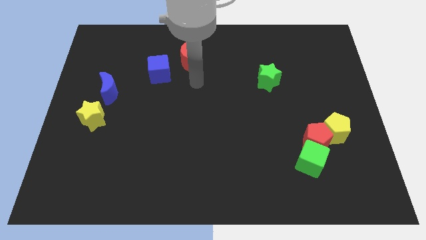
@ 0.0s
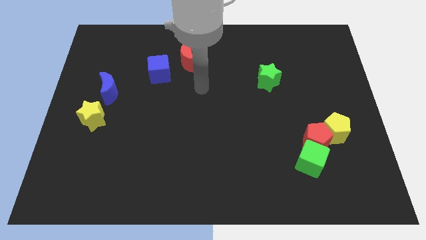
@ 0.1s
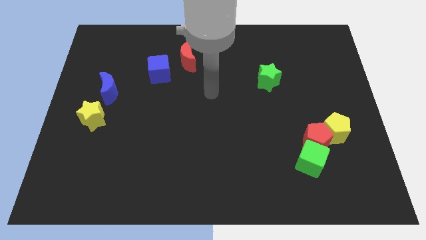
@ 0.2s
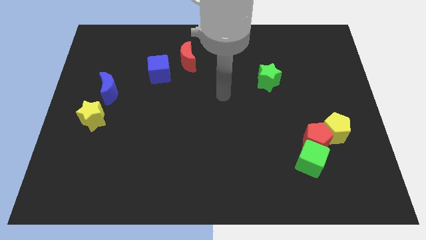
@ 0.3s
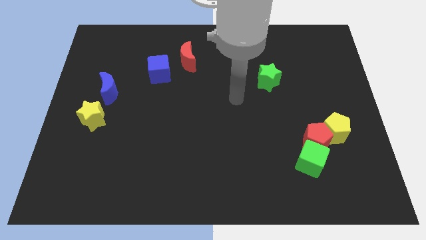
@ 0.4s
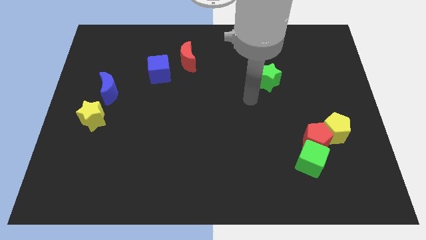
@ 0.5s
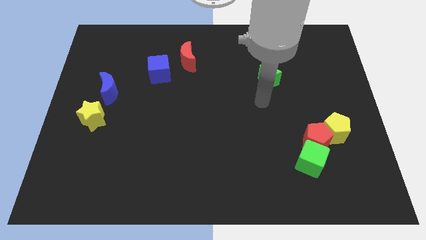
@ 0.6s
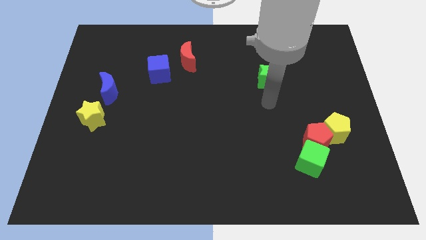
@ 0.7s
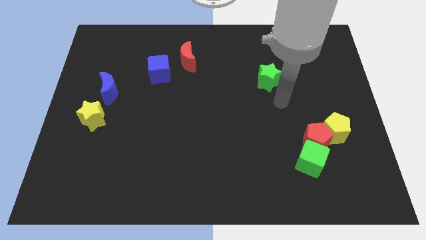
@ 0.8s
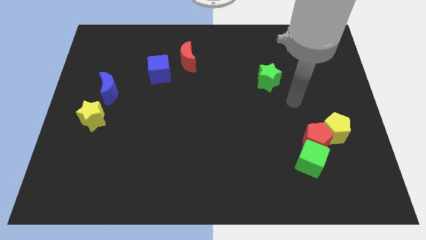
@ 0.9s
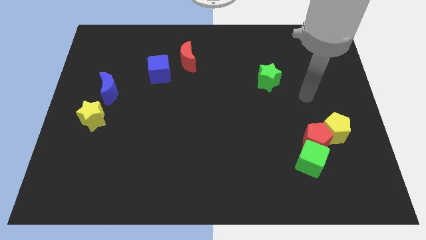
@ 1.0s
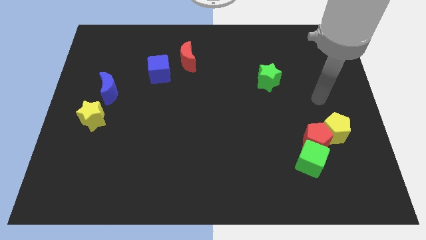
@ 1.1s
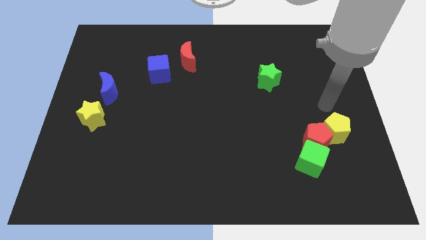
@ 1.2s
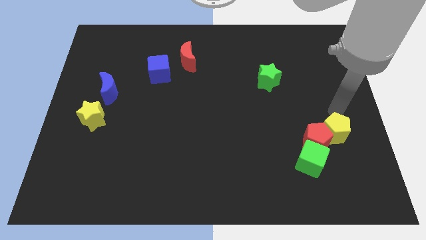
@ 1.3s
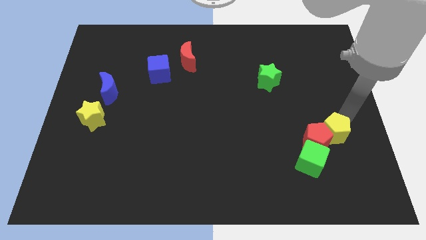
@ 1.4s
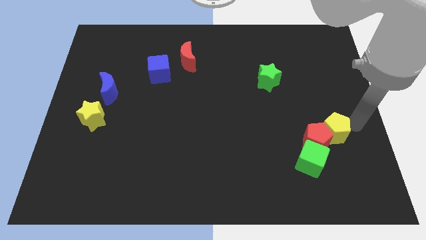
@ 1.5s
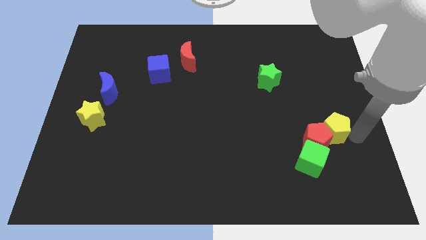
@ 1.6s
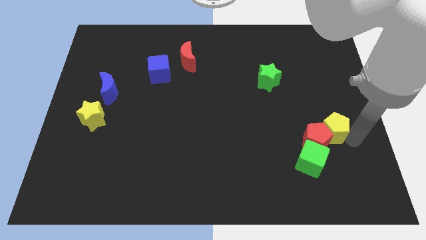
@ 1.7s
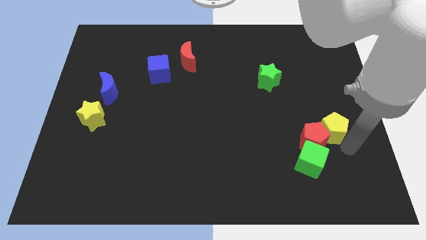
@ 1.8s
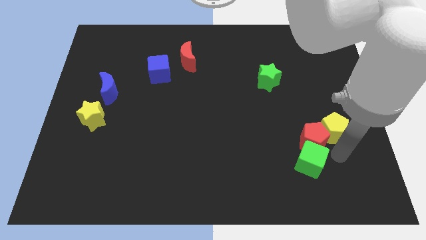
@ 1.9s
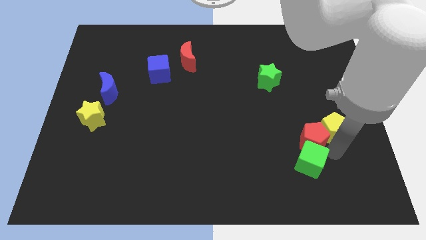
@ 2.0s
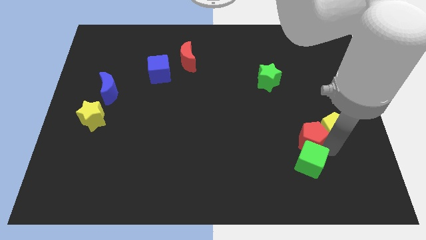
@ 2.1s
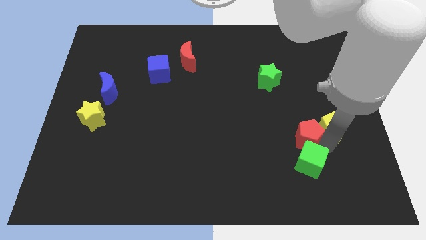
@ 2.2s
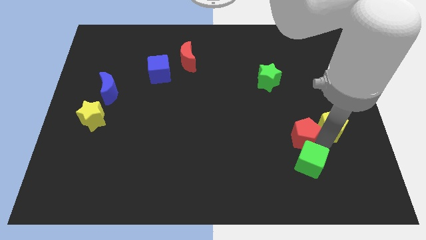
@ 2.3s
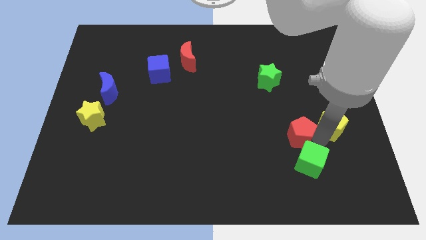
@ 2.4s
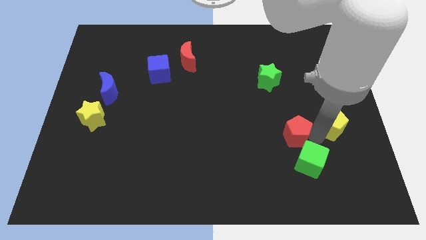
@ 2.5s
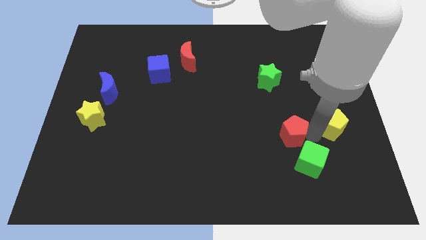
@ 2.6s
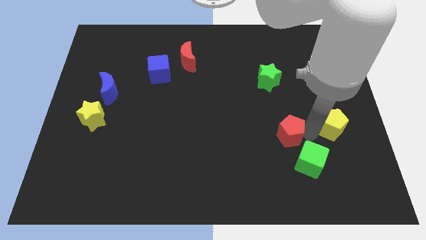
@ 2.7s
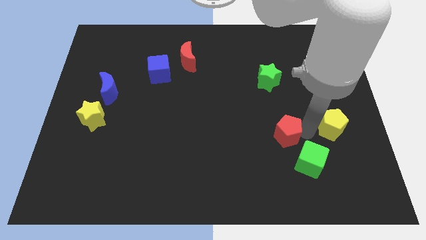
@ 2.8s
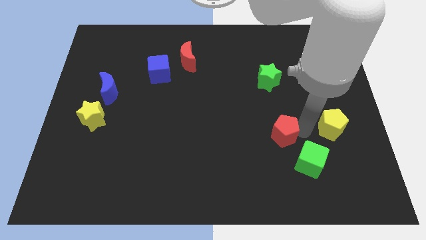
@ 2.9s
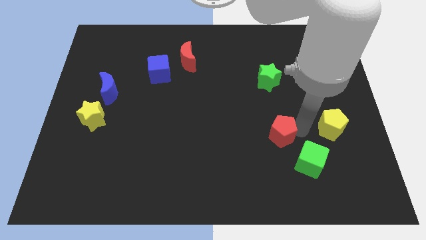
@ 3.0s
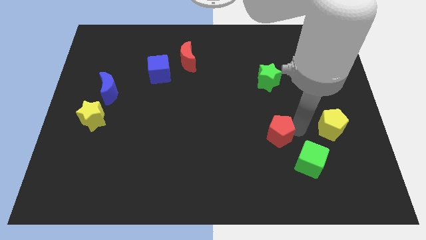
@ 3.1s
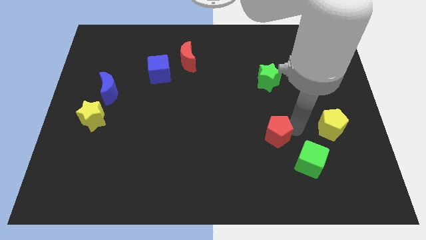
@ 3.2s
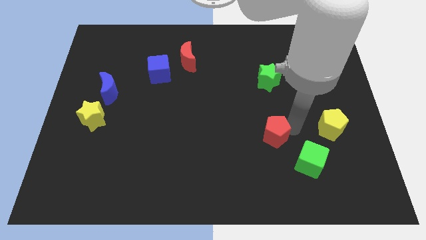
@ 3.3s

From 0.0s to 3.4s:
move the red pentagon away from the yellow pentagon and green cube

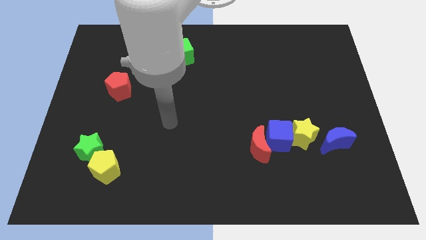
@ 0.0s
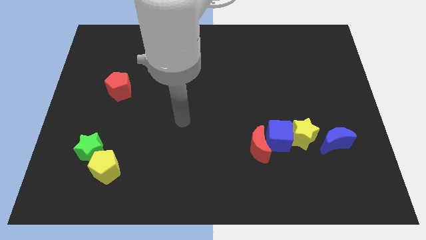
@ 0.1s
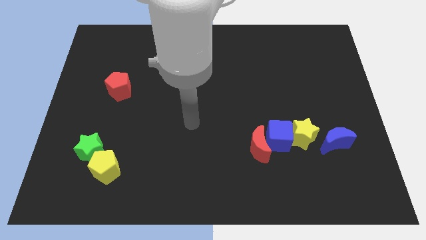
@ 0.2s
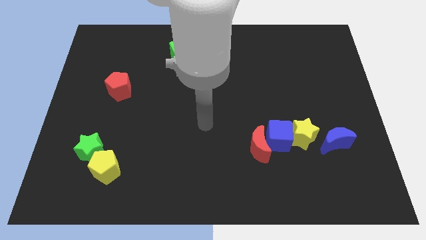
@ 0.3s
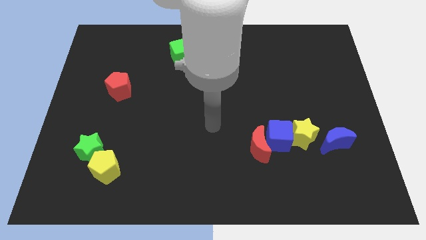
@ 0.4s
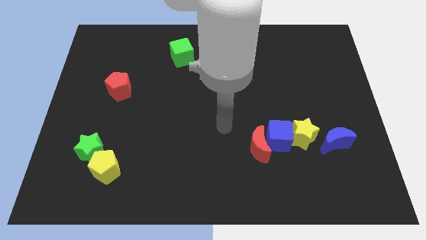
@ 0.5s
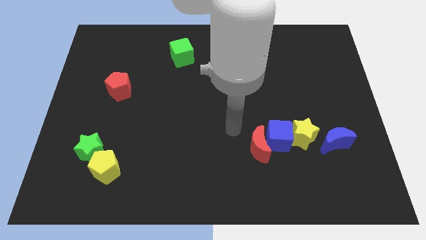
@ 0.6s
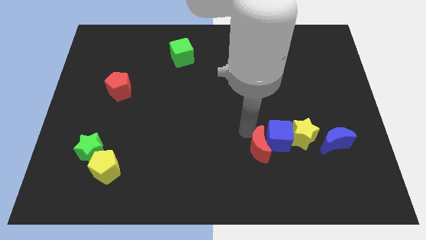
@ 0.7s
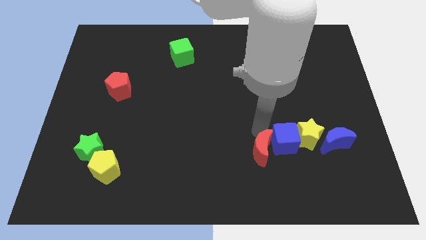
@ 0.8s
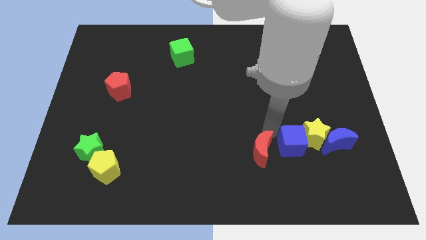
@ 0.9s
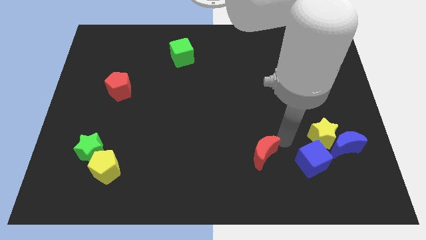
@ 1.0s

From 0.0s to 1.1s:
move the red moon away from the blue cube

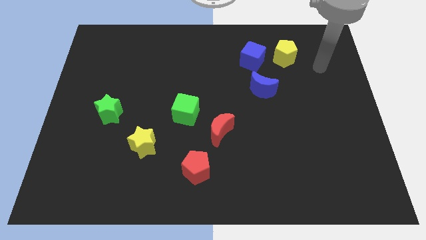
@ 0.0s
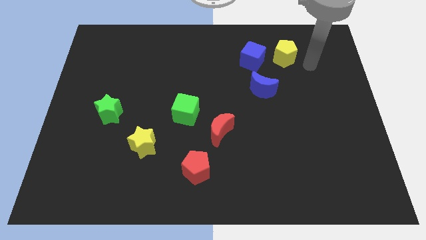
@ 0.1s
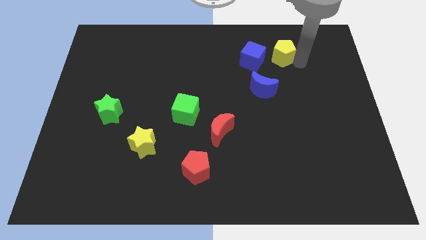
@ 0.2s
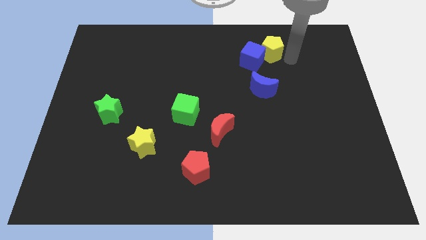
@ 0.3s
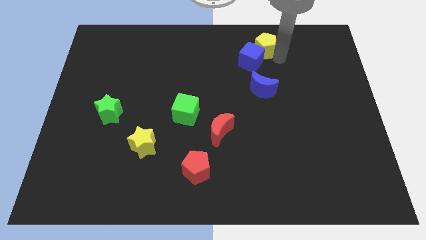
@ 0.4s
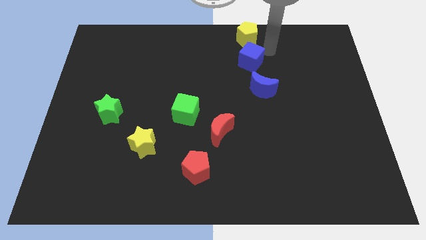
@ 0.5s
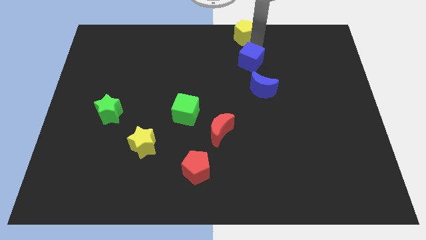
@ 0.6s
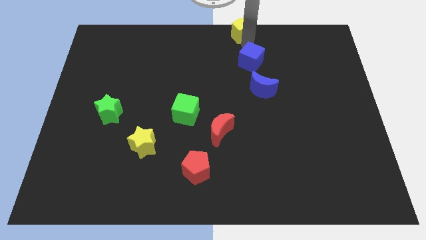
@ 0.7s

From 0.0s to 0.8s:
pull the blue cube apart from the yellow pentagon

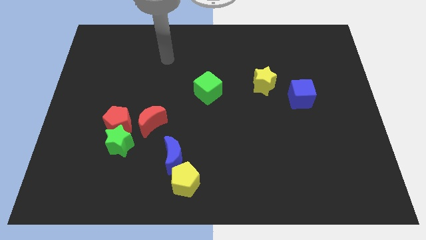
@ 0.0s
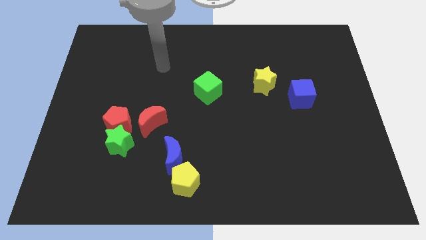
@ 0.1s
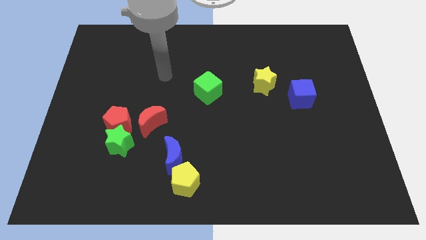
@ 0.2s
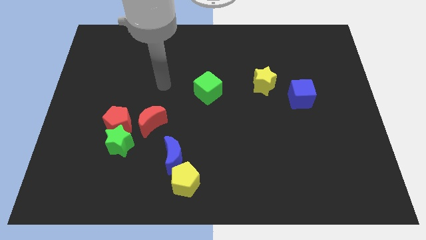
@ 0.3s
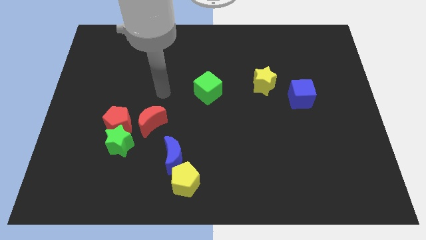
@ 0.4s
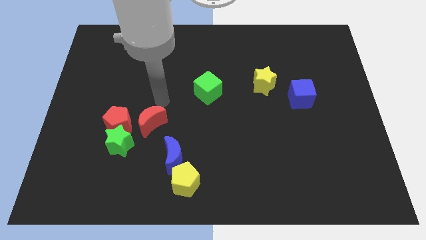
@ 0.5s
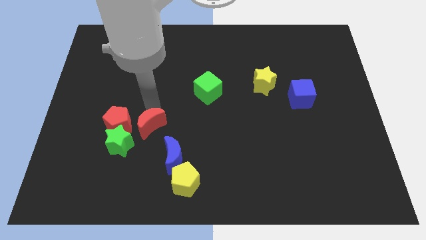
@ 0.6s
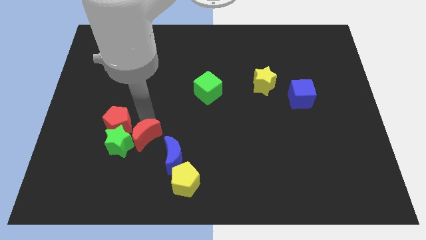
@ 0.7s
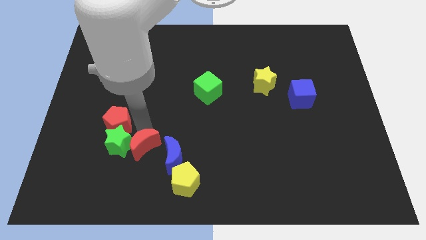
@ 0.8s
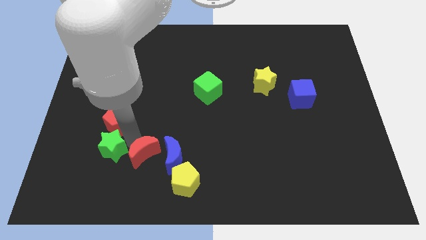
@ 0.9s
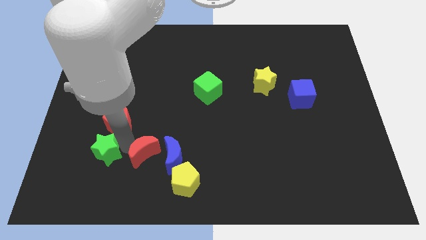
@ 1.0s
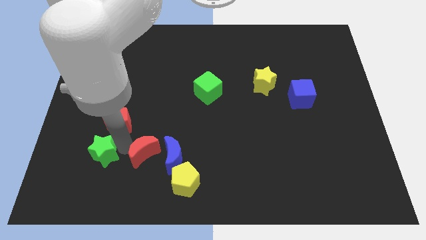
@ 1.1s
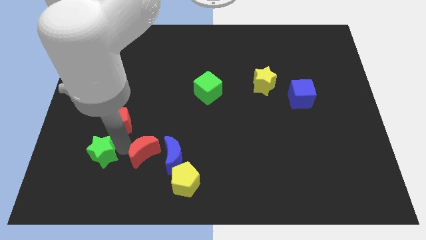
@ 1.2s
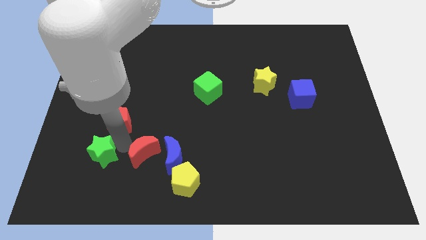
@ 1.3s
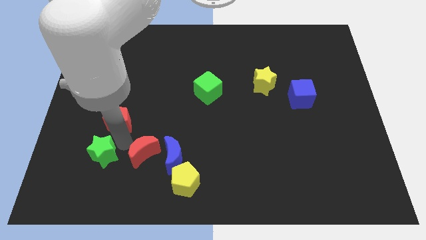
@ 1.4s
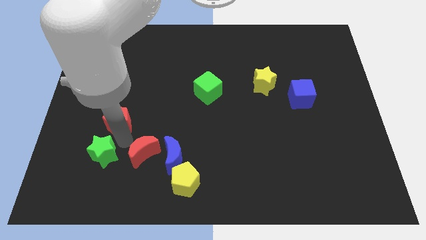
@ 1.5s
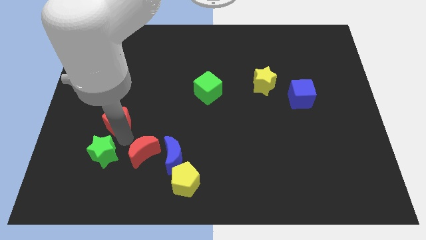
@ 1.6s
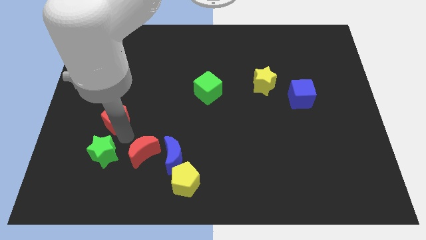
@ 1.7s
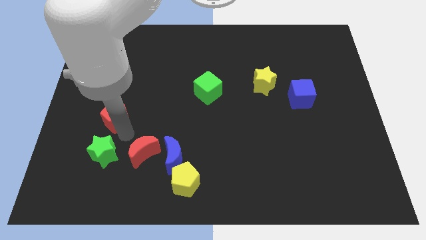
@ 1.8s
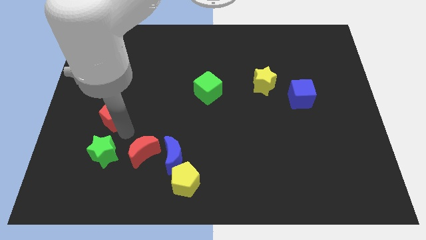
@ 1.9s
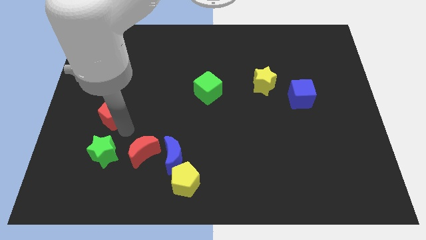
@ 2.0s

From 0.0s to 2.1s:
pull the red pentagon apart from the green star and red moon

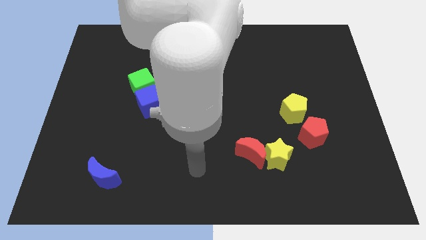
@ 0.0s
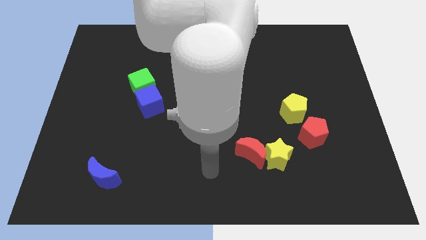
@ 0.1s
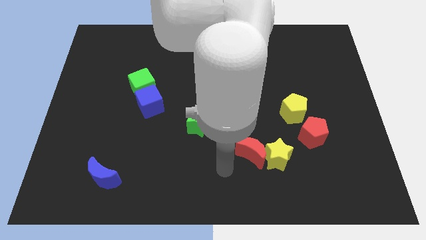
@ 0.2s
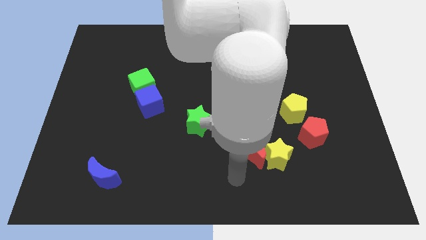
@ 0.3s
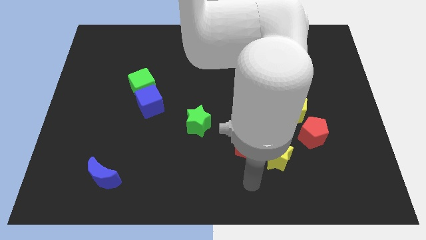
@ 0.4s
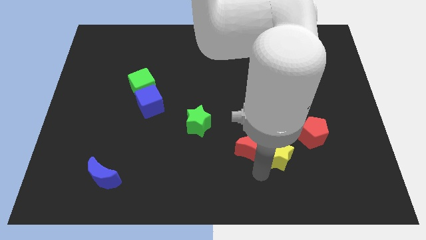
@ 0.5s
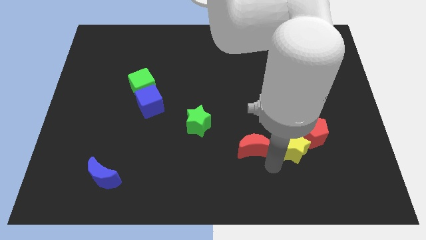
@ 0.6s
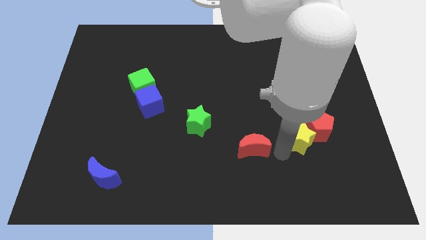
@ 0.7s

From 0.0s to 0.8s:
pull the red moon apart from the yellow star

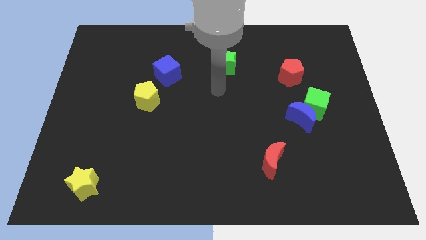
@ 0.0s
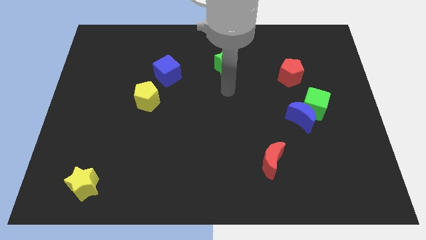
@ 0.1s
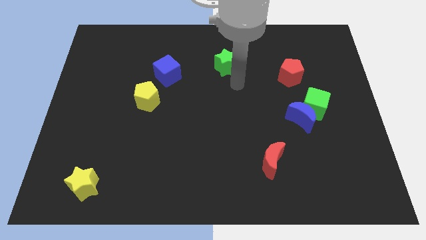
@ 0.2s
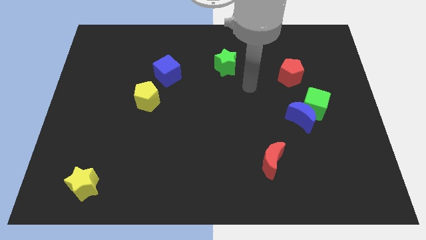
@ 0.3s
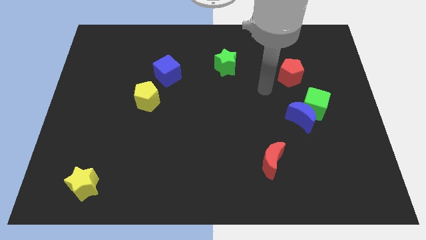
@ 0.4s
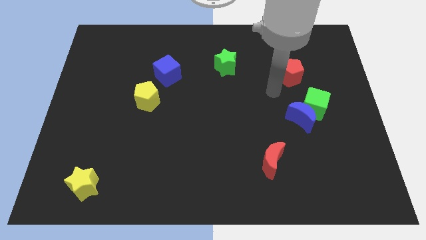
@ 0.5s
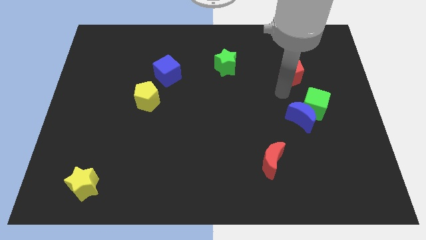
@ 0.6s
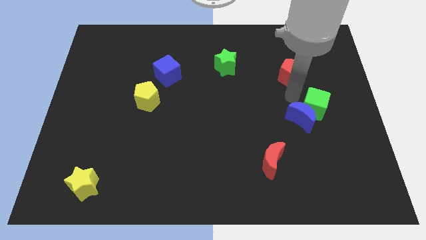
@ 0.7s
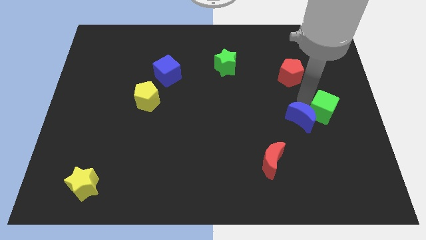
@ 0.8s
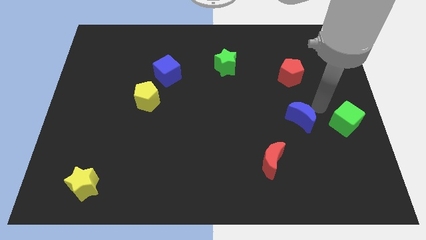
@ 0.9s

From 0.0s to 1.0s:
pull the blue moon apart from the green cube
